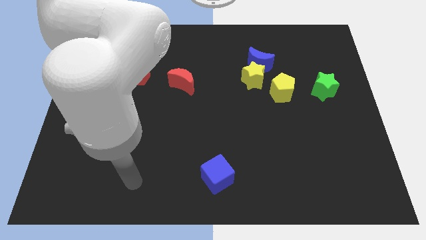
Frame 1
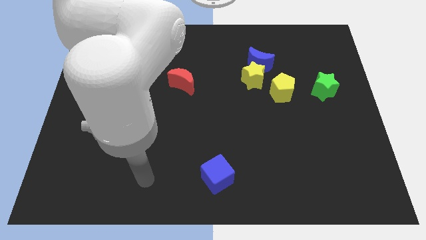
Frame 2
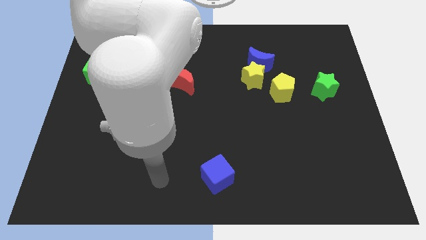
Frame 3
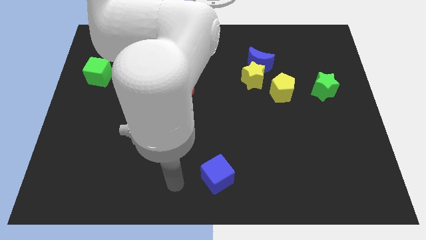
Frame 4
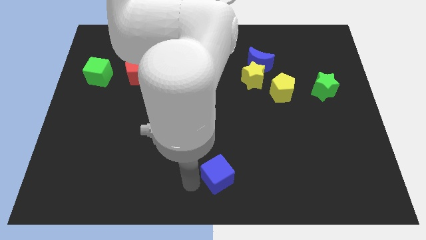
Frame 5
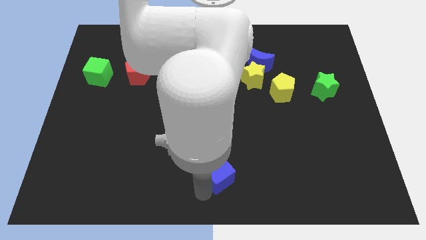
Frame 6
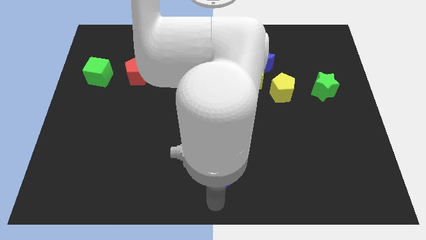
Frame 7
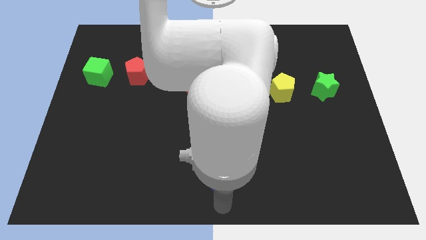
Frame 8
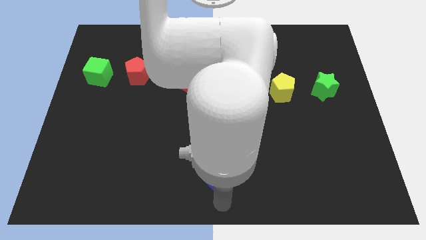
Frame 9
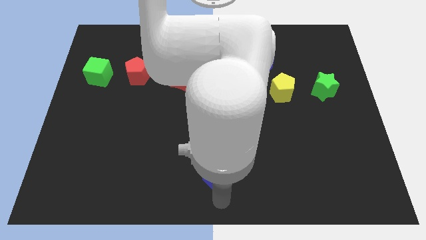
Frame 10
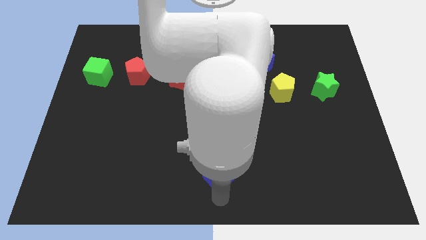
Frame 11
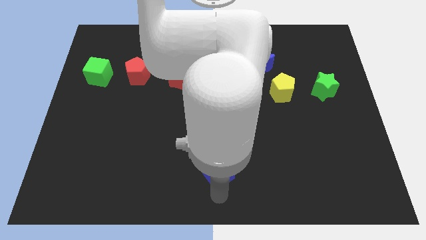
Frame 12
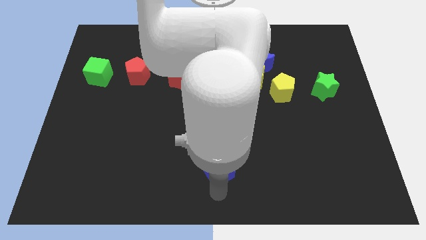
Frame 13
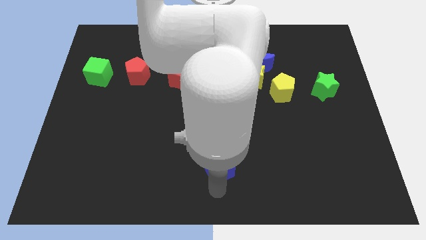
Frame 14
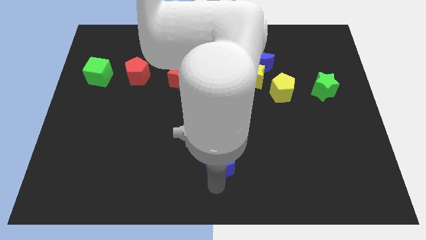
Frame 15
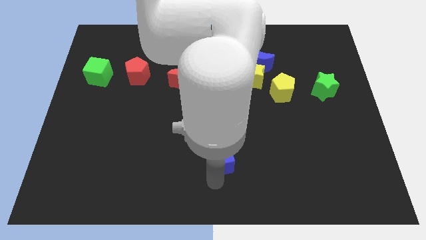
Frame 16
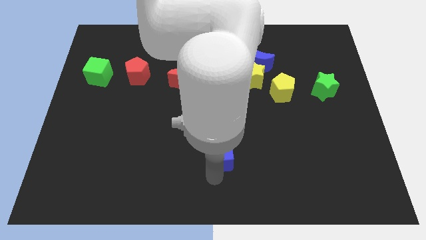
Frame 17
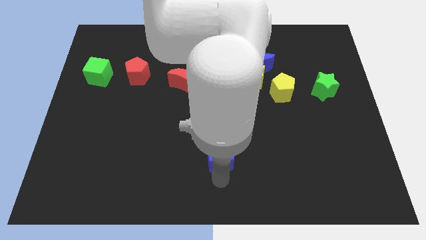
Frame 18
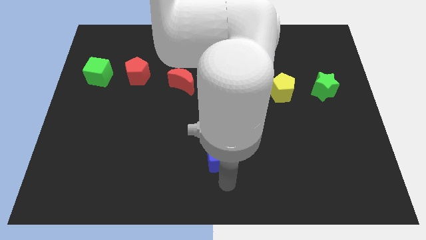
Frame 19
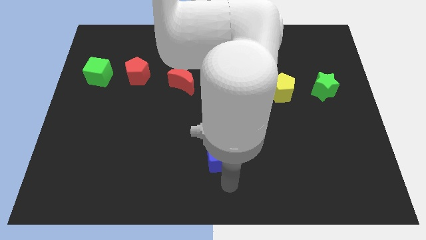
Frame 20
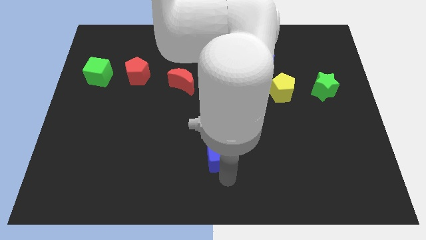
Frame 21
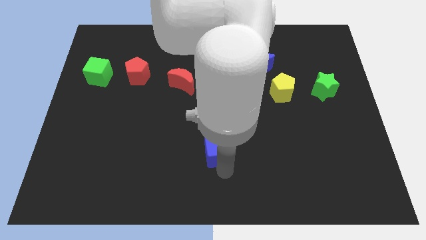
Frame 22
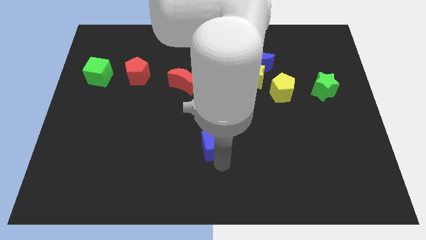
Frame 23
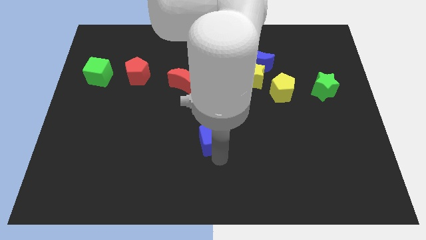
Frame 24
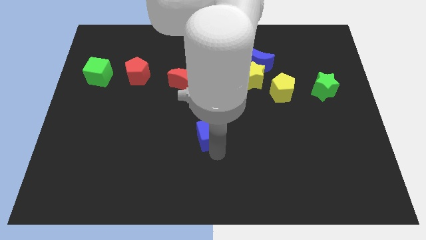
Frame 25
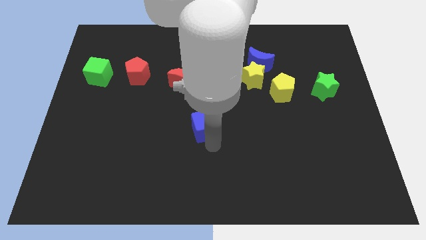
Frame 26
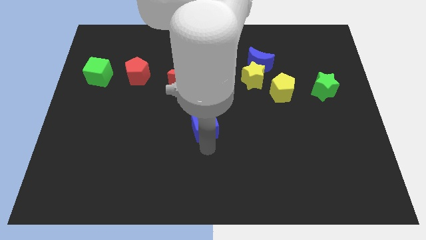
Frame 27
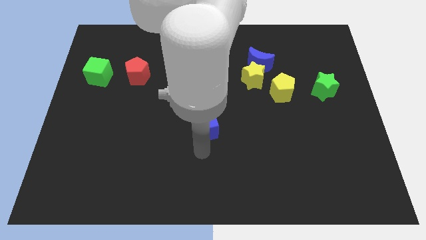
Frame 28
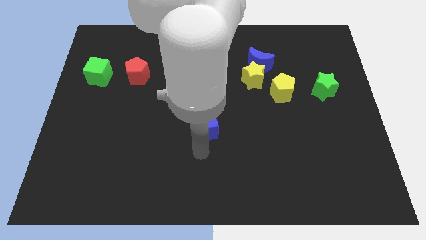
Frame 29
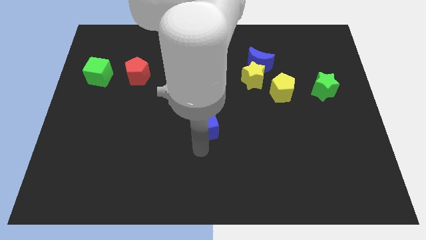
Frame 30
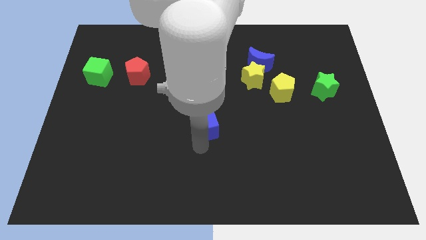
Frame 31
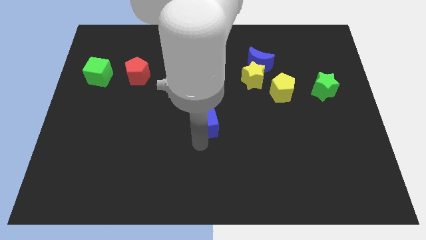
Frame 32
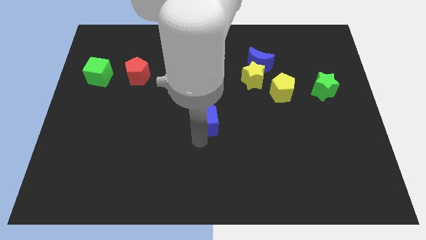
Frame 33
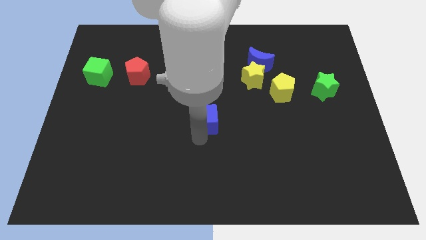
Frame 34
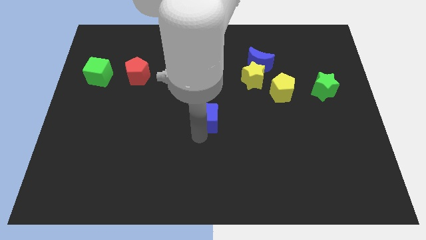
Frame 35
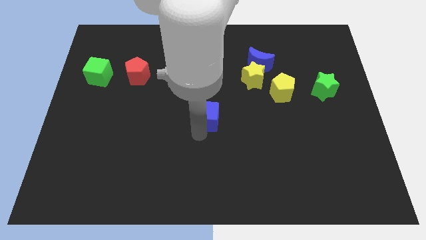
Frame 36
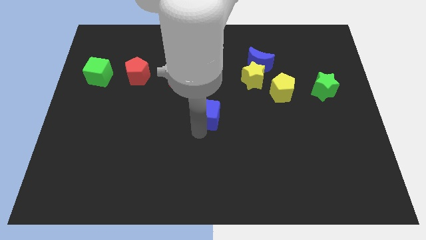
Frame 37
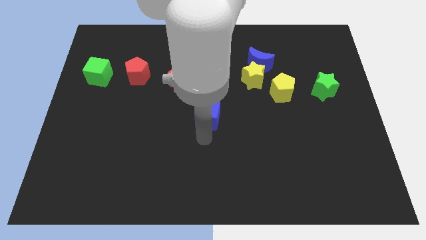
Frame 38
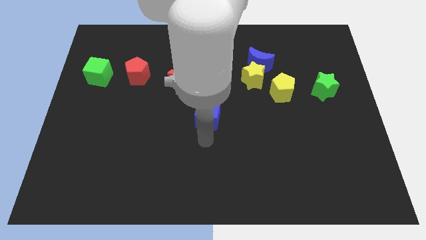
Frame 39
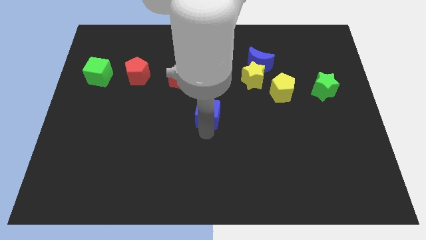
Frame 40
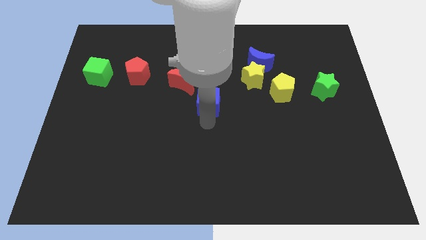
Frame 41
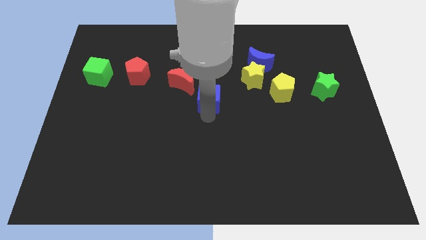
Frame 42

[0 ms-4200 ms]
move the blue cube up

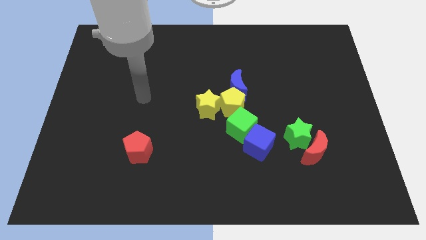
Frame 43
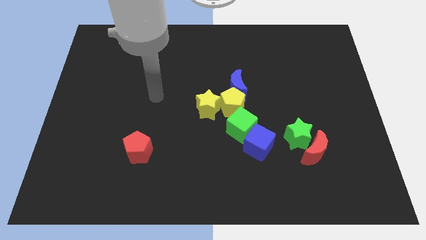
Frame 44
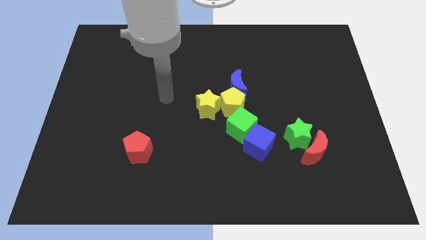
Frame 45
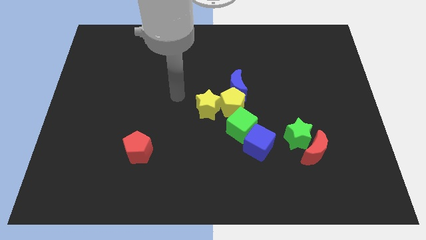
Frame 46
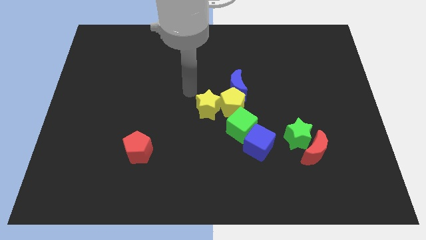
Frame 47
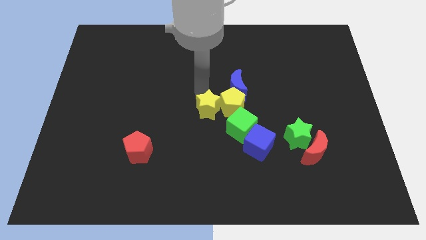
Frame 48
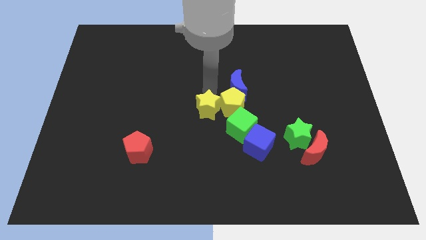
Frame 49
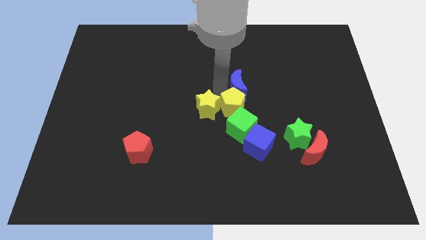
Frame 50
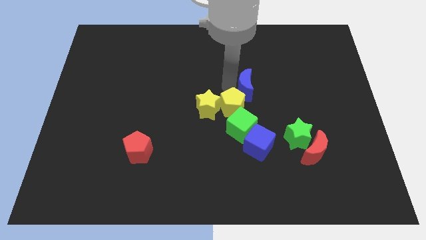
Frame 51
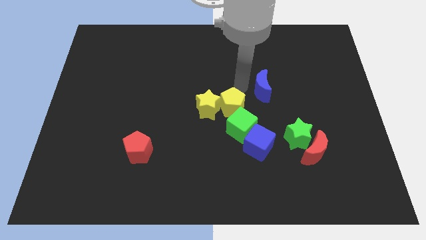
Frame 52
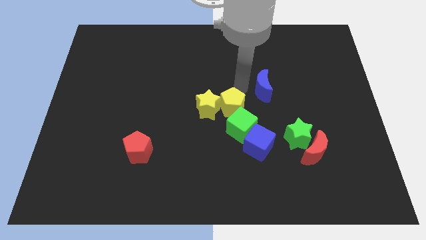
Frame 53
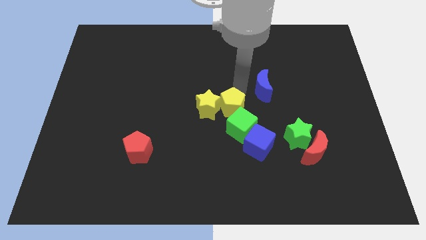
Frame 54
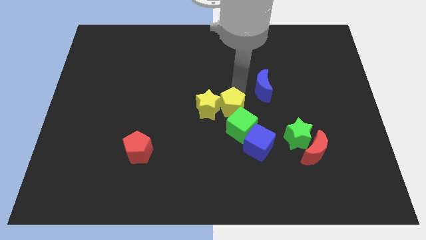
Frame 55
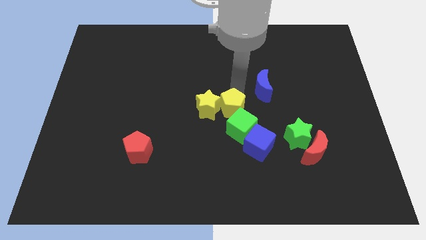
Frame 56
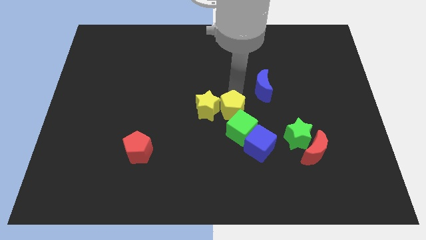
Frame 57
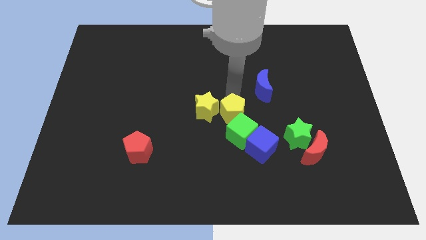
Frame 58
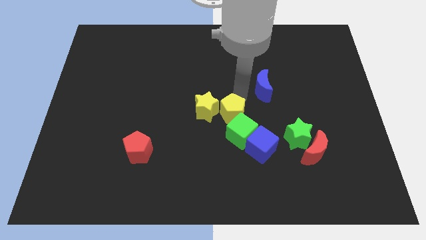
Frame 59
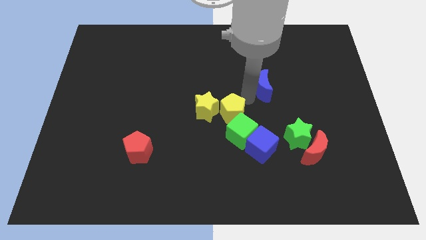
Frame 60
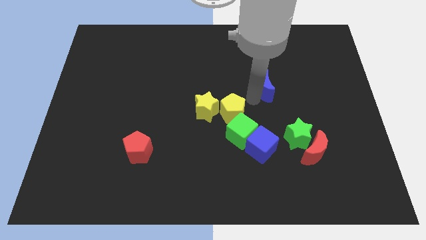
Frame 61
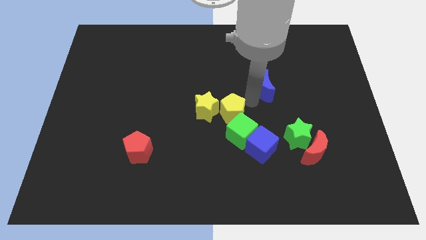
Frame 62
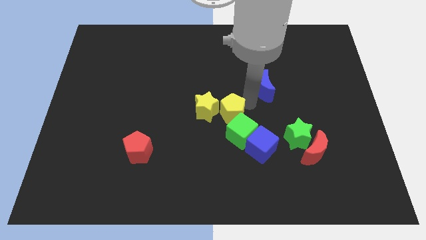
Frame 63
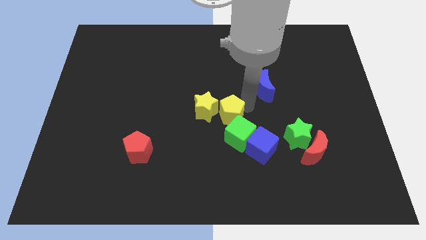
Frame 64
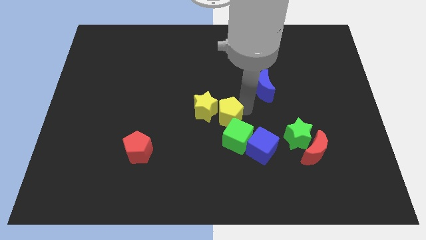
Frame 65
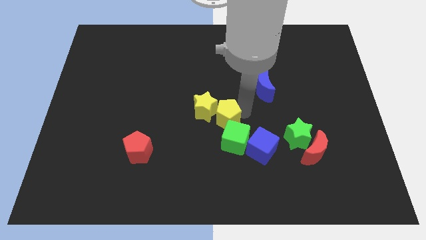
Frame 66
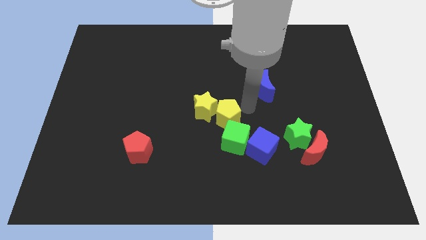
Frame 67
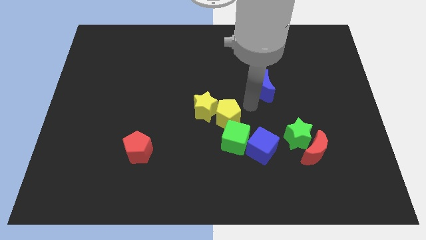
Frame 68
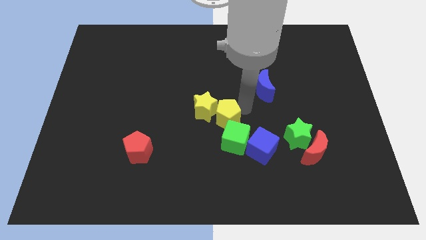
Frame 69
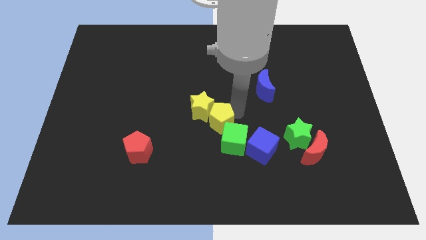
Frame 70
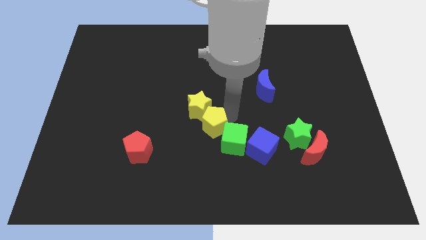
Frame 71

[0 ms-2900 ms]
slightly push the yellow pentagon downwards and left

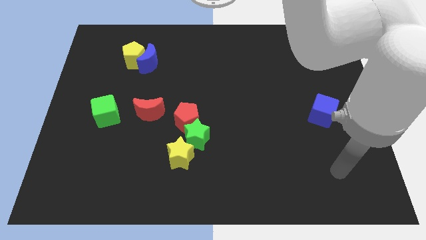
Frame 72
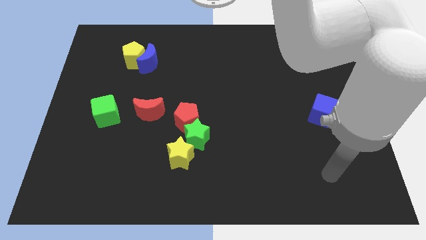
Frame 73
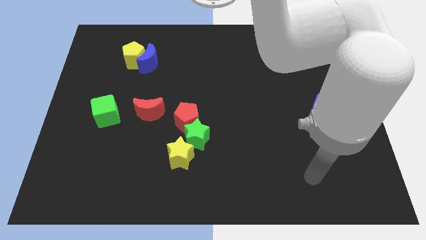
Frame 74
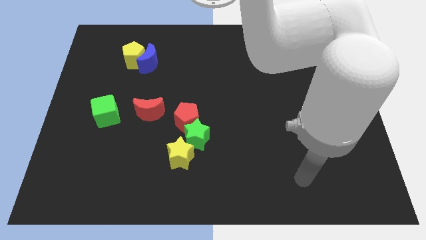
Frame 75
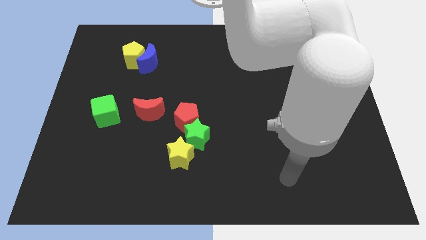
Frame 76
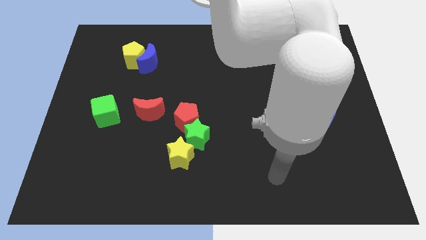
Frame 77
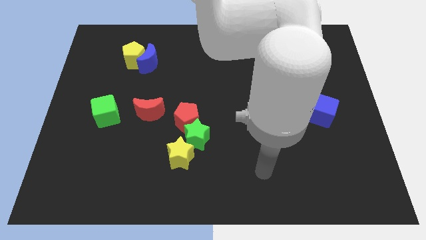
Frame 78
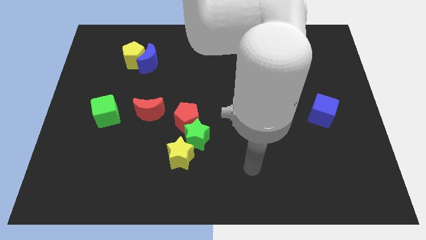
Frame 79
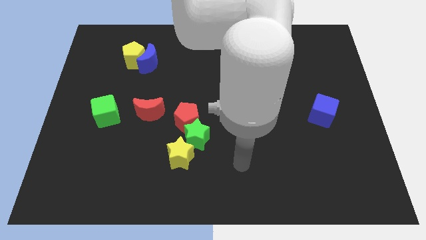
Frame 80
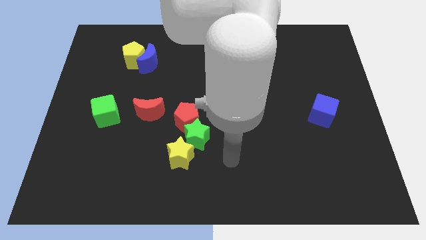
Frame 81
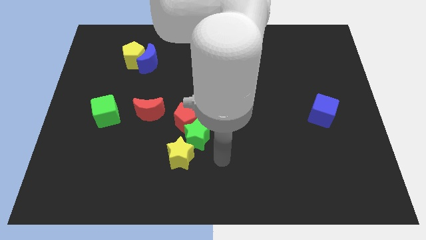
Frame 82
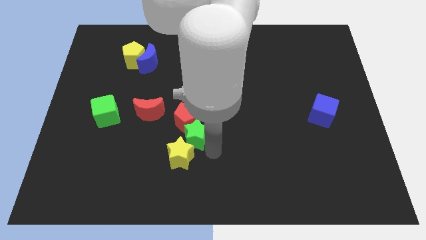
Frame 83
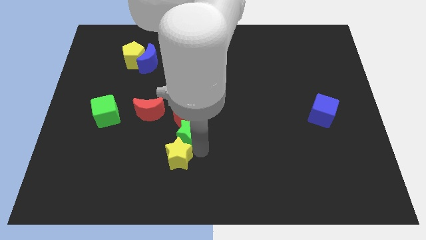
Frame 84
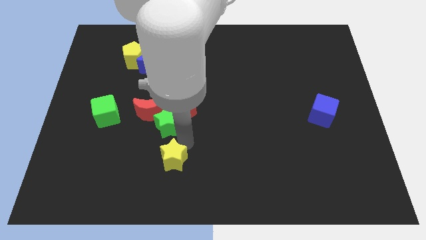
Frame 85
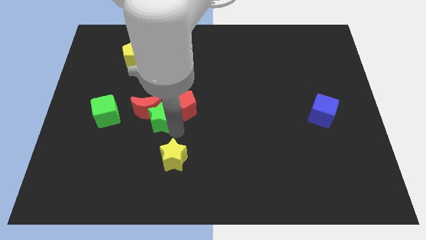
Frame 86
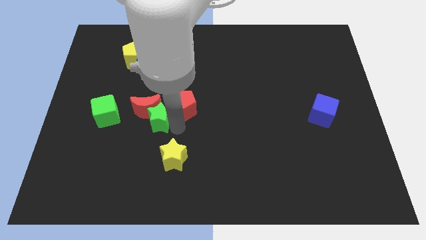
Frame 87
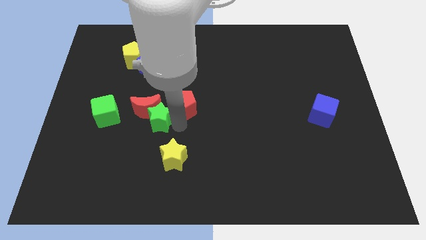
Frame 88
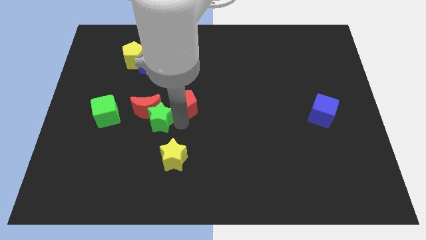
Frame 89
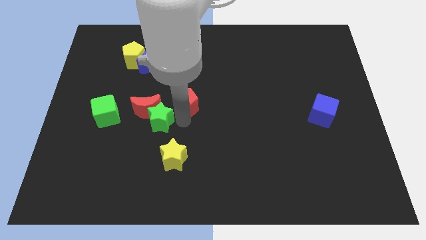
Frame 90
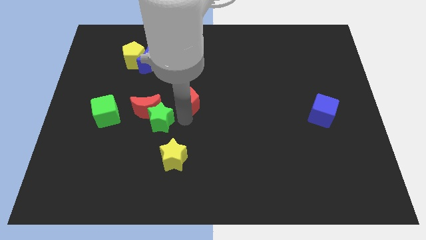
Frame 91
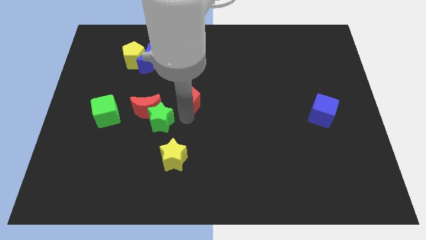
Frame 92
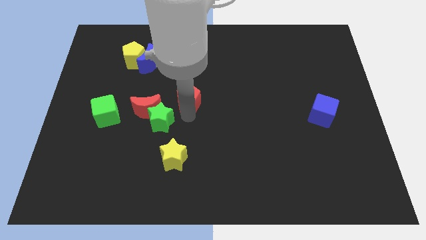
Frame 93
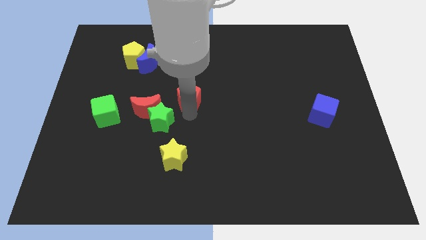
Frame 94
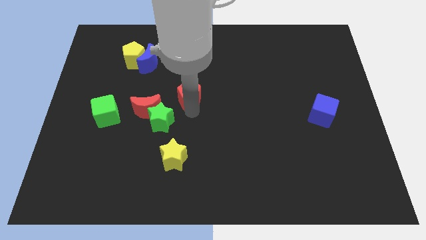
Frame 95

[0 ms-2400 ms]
move the red pentagon somewhat upwards
